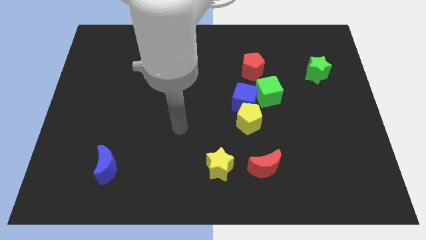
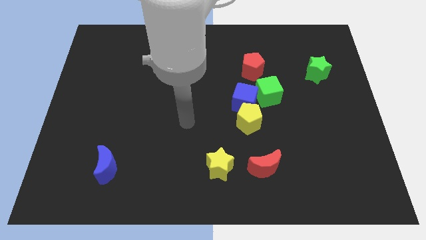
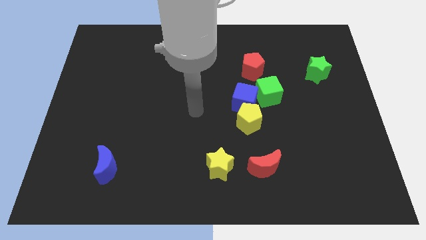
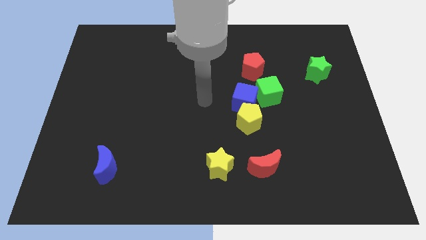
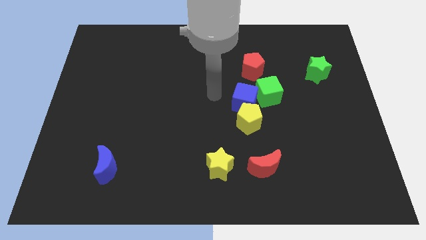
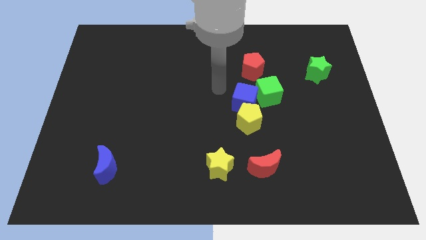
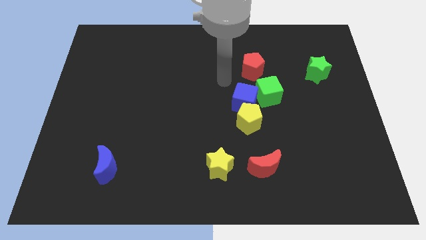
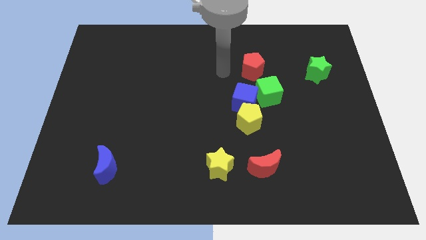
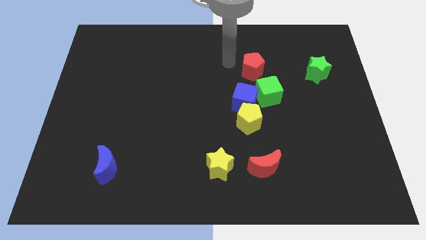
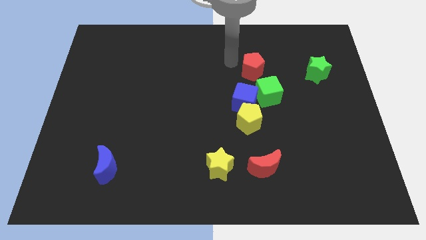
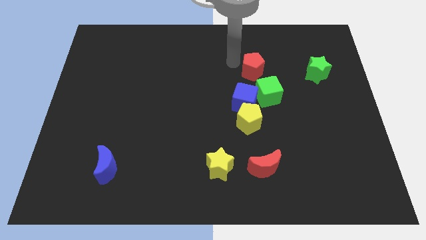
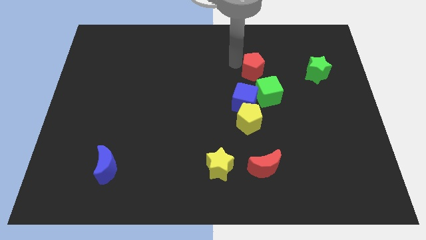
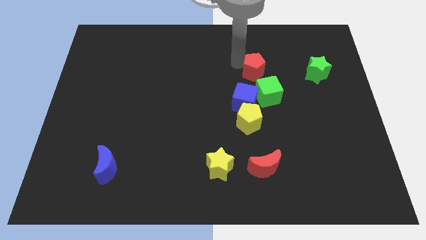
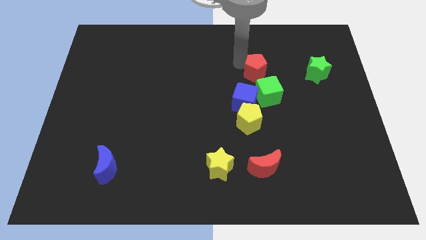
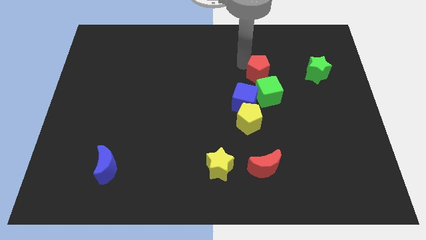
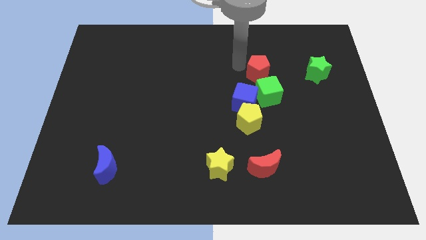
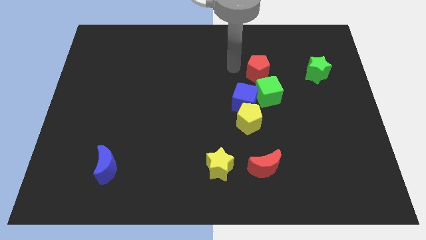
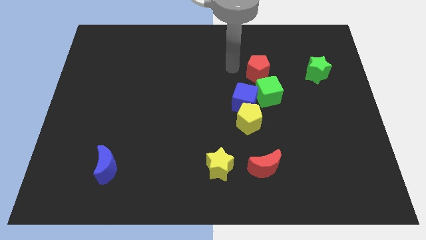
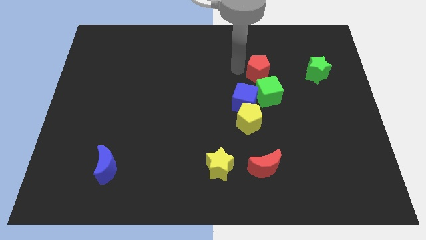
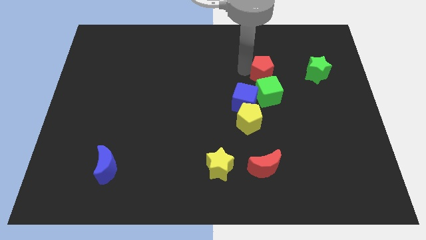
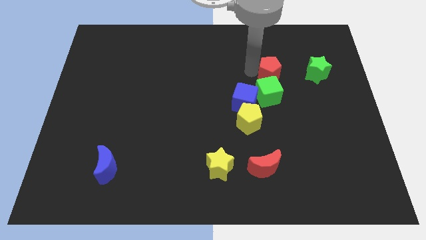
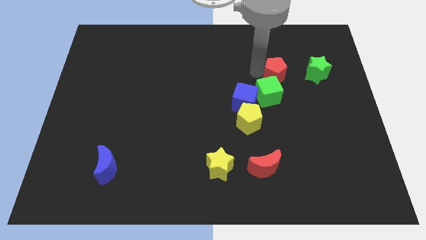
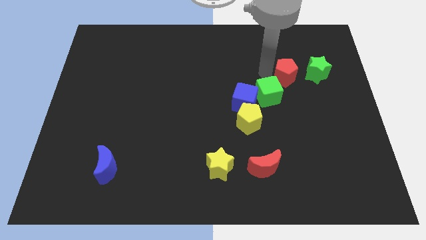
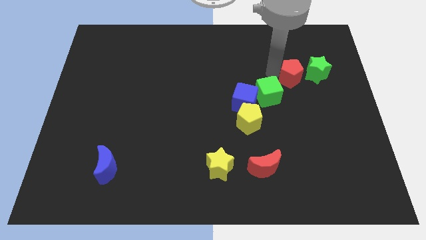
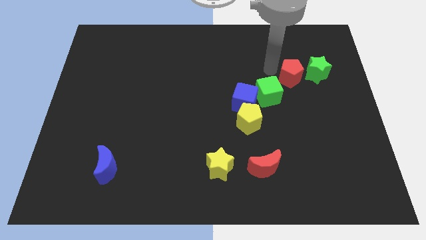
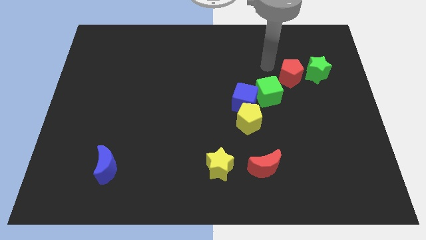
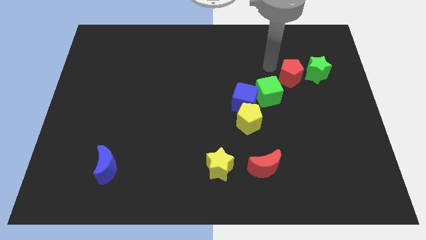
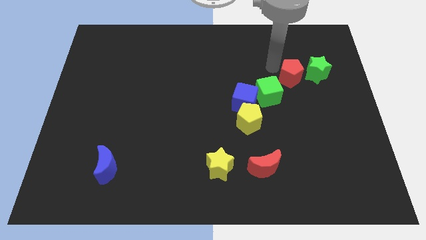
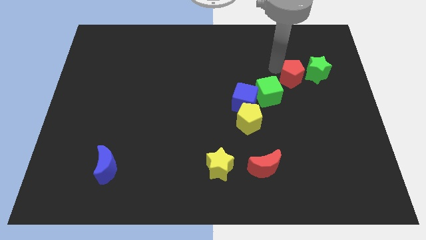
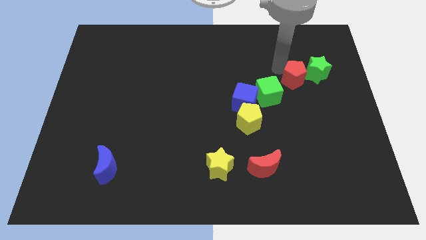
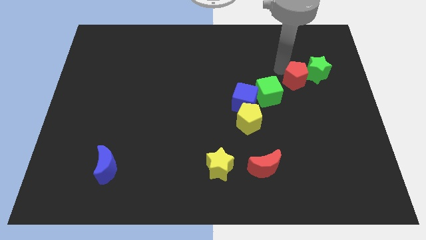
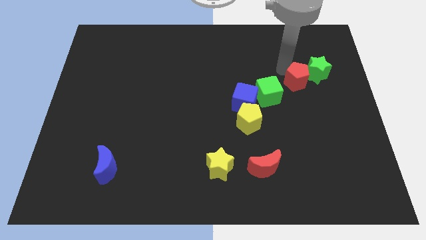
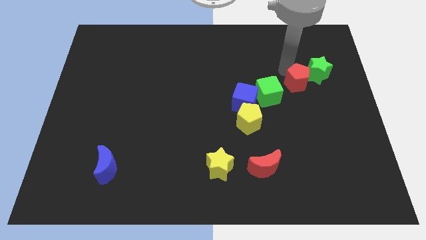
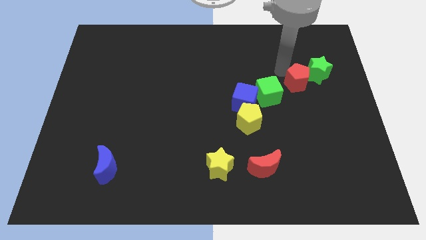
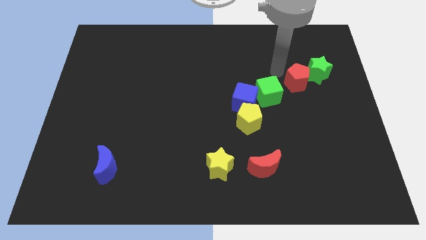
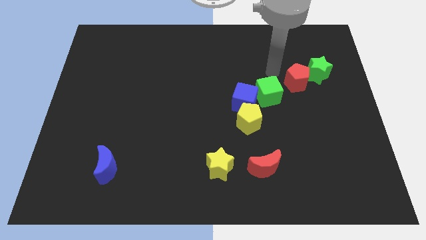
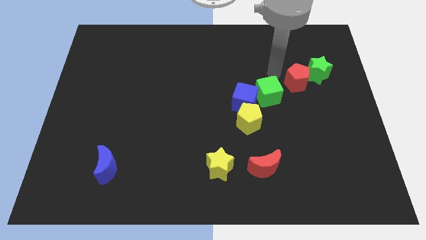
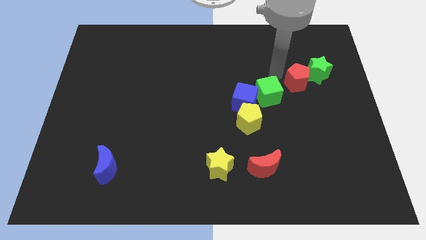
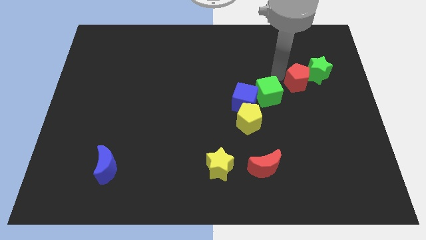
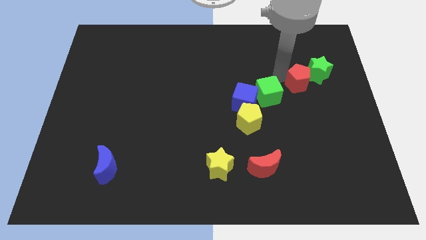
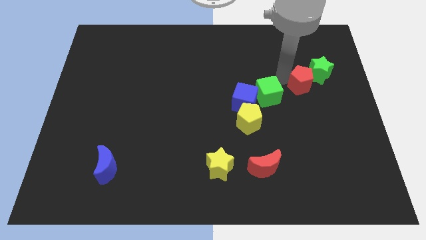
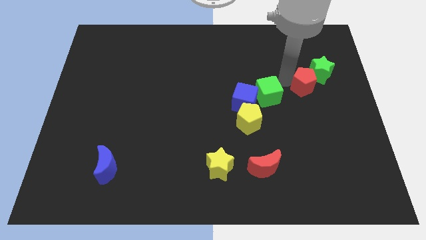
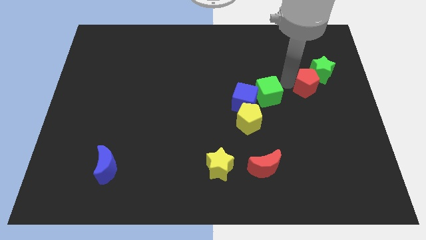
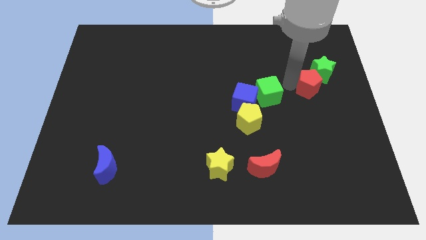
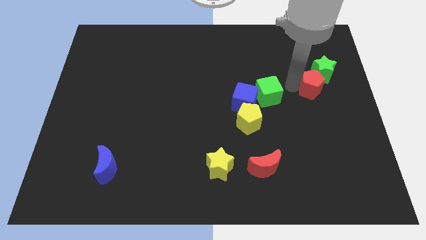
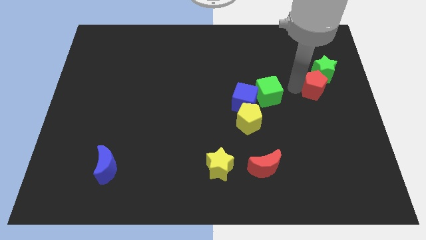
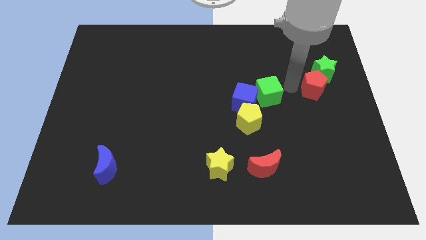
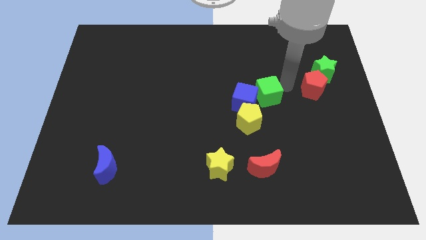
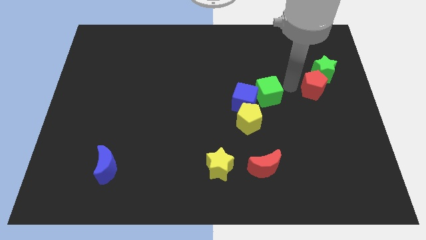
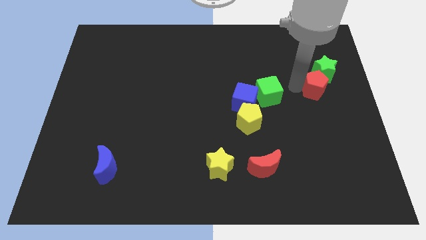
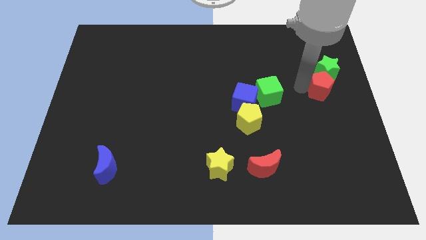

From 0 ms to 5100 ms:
put the red pentagon to the right side

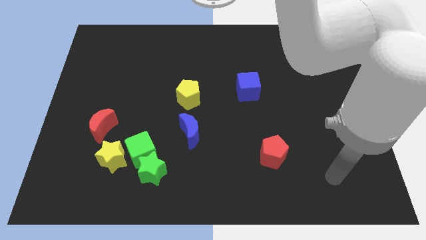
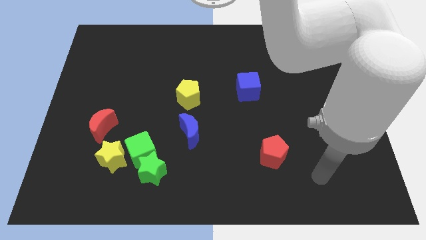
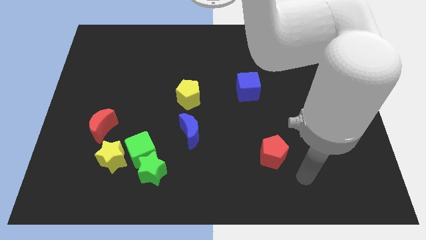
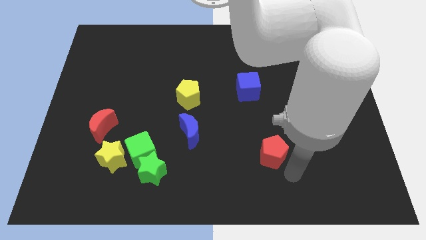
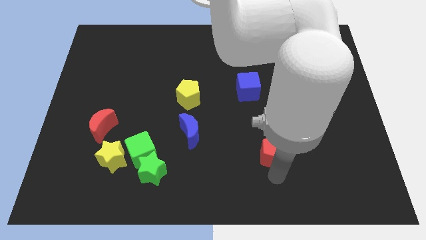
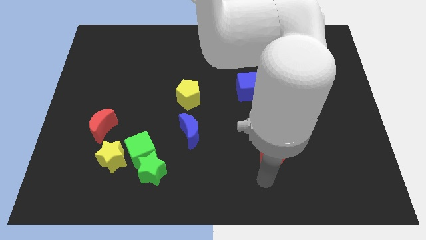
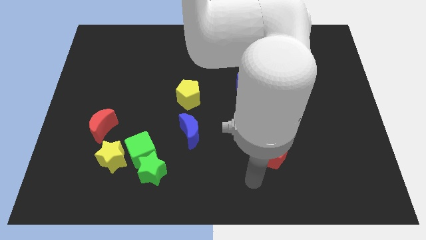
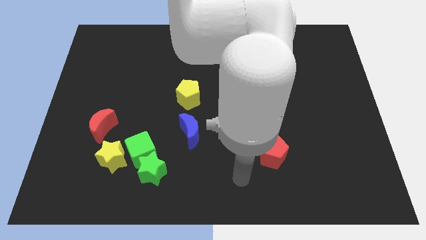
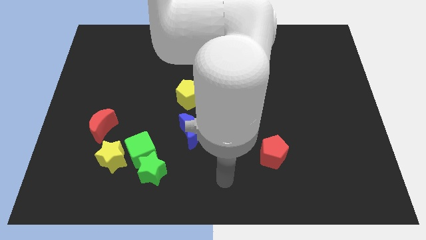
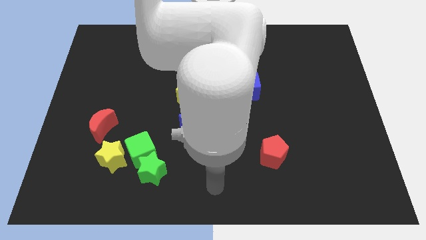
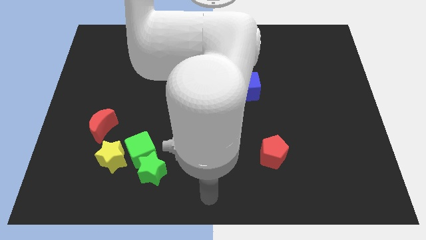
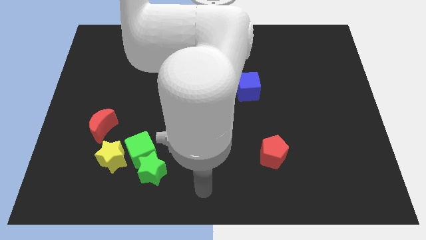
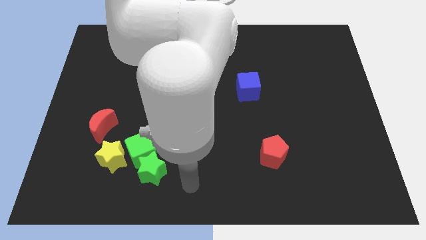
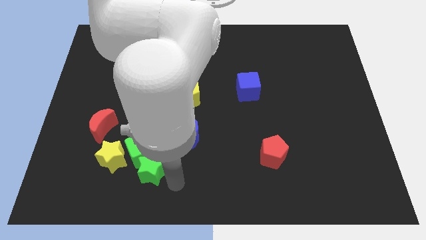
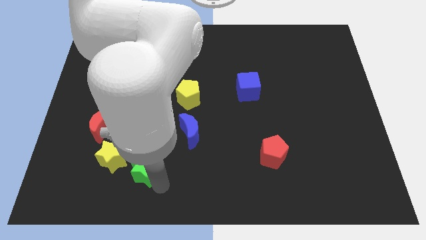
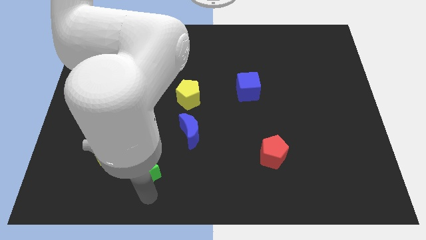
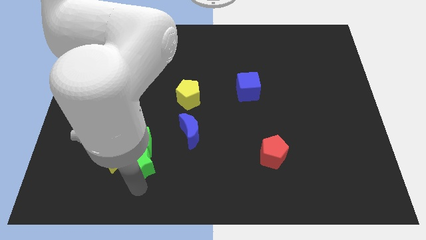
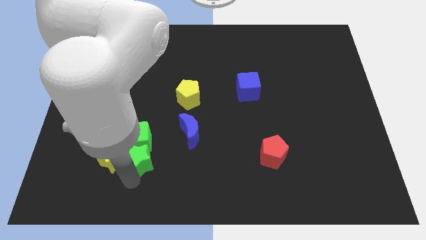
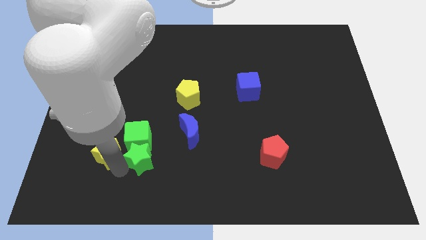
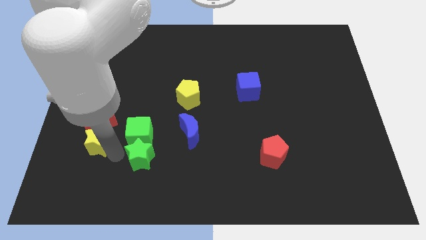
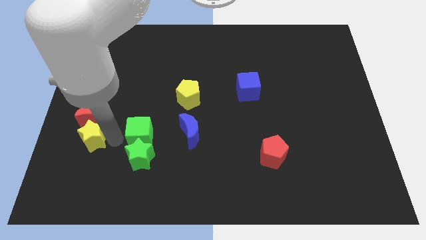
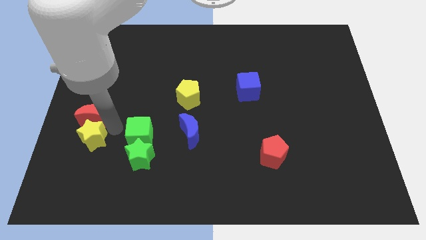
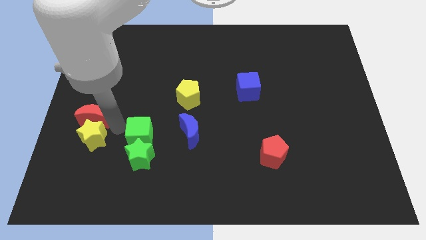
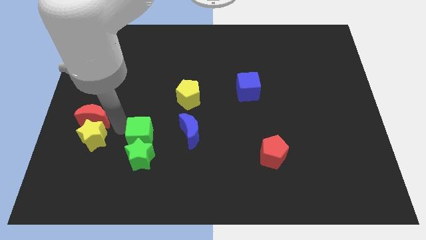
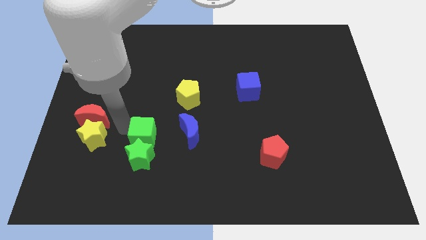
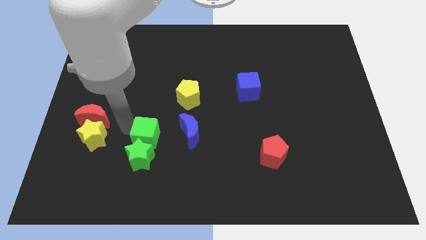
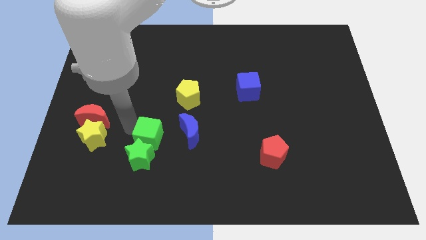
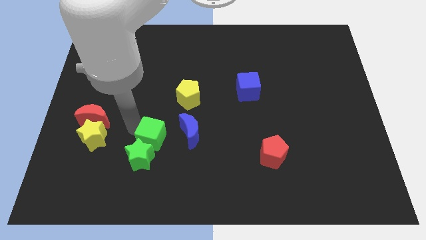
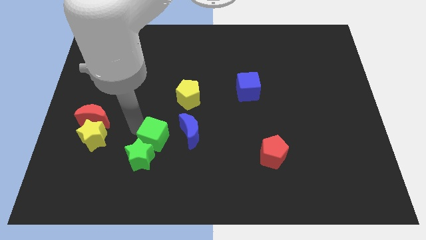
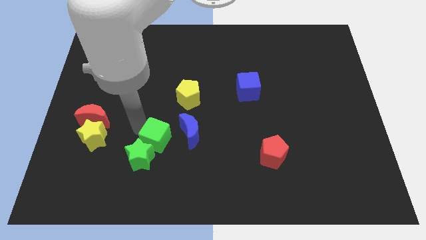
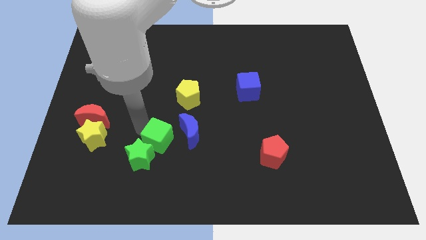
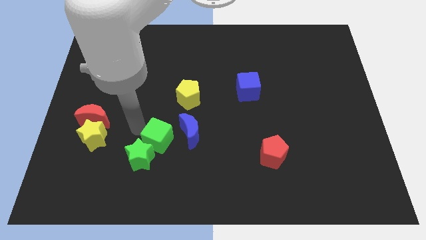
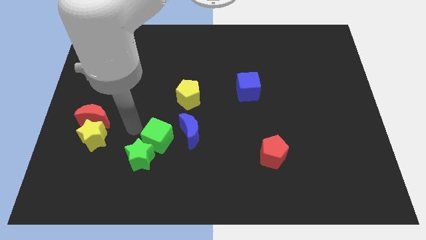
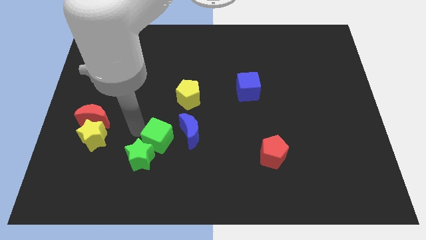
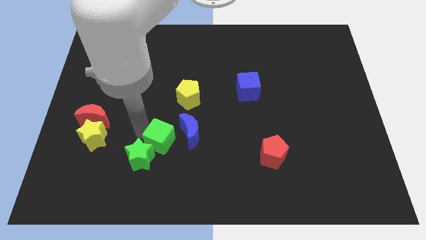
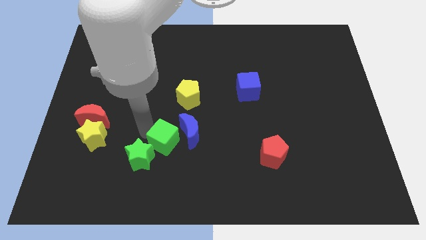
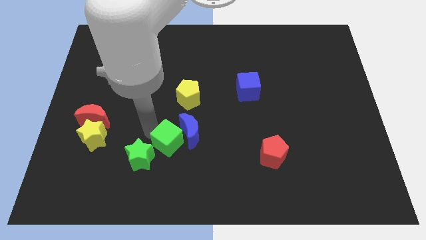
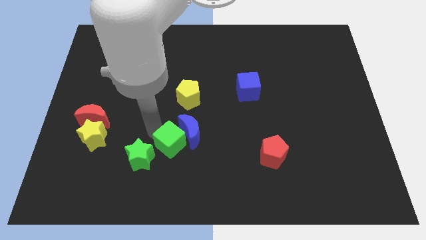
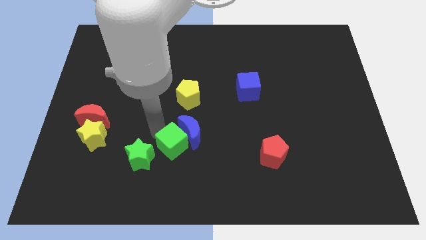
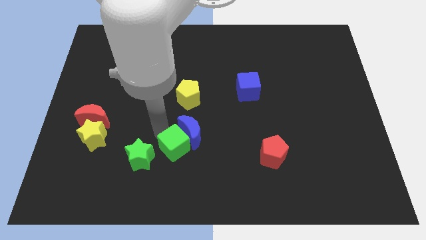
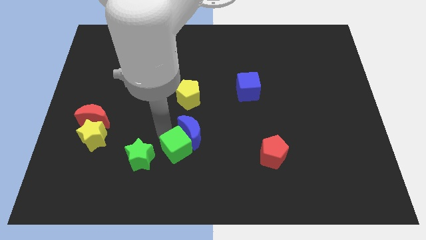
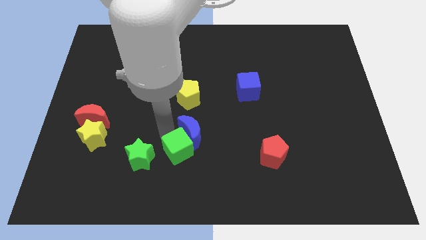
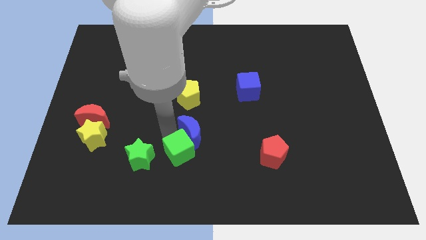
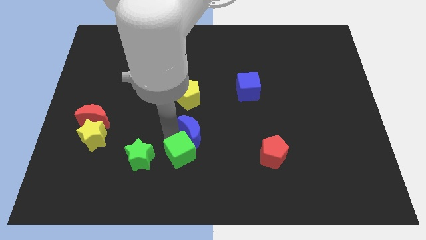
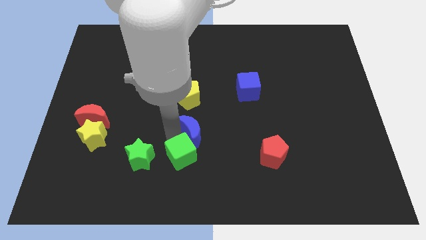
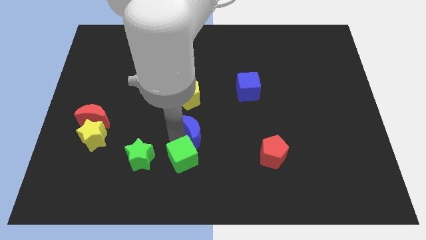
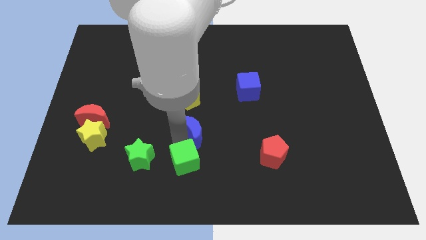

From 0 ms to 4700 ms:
push the green cube to the bottom
